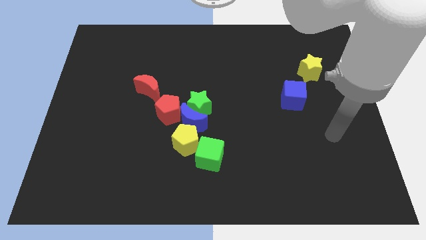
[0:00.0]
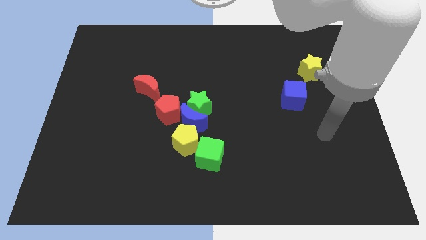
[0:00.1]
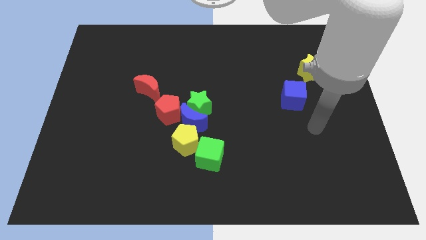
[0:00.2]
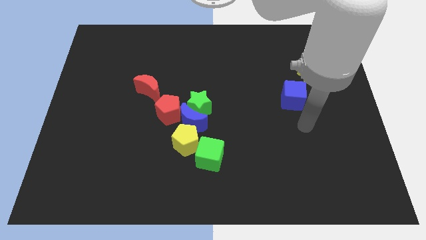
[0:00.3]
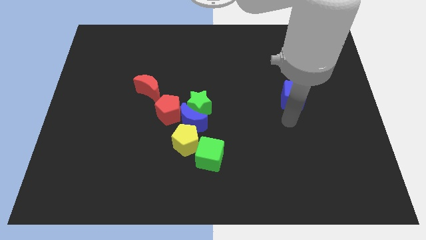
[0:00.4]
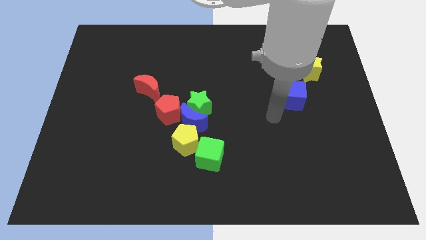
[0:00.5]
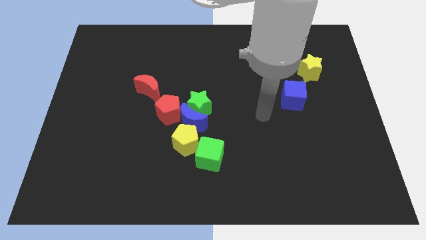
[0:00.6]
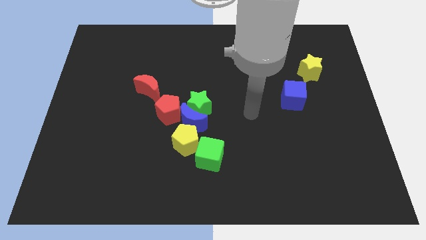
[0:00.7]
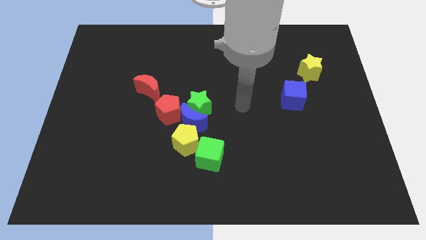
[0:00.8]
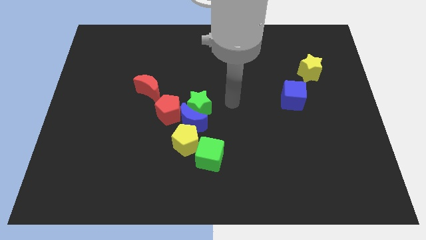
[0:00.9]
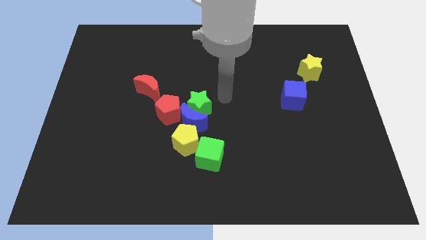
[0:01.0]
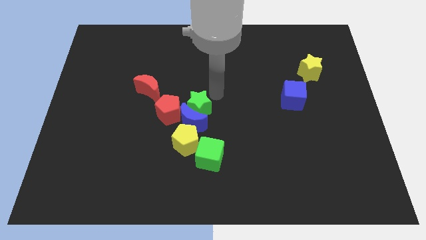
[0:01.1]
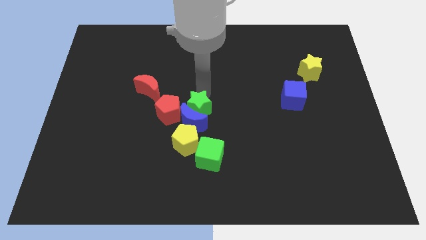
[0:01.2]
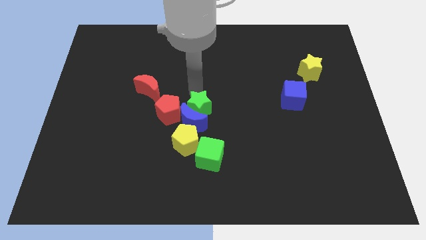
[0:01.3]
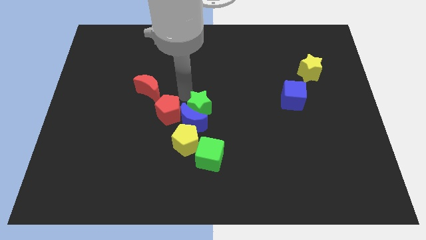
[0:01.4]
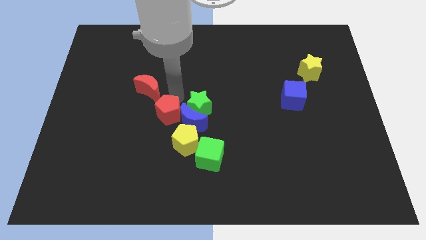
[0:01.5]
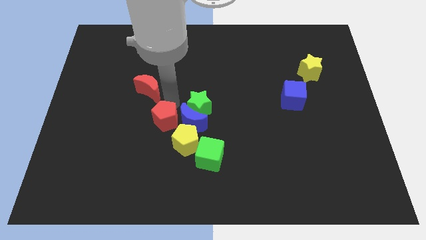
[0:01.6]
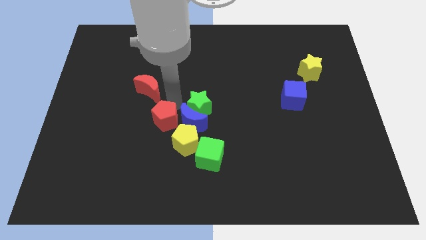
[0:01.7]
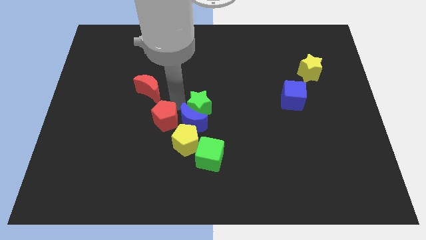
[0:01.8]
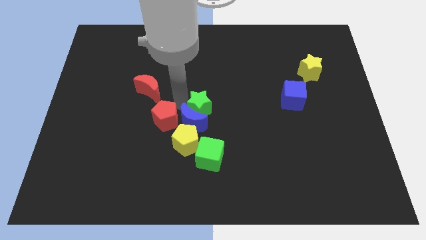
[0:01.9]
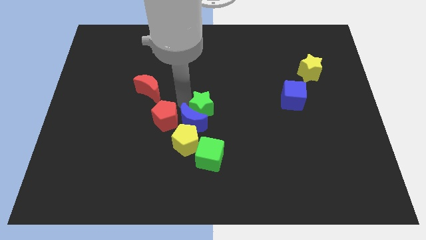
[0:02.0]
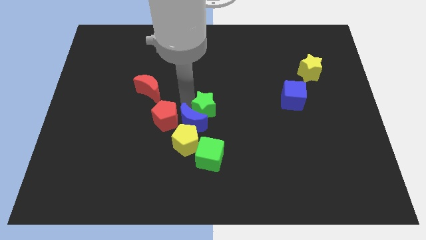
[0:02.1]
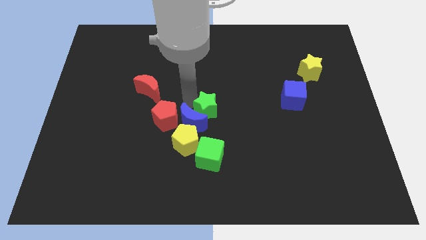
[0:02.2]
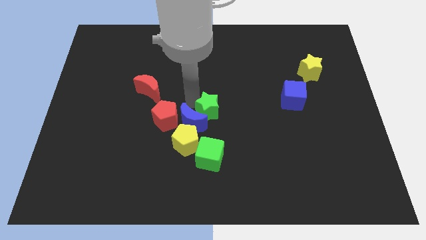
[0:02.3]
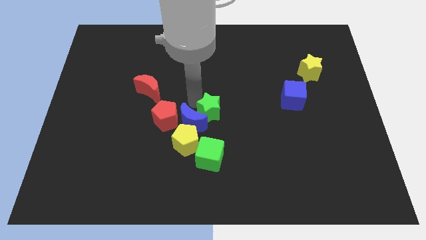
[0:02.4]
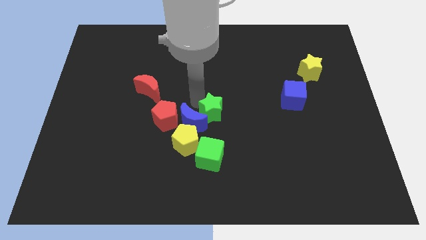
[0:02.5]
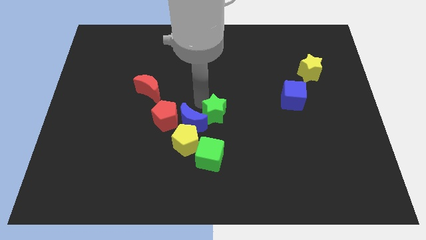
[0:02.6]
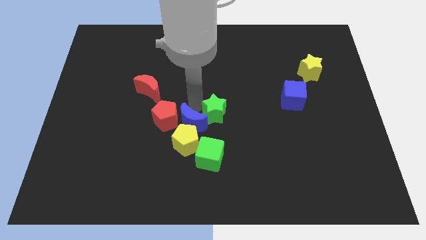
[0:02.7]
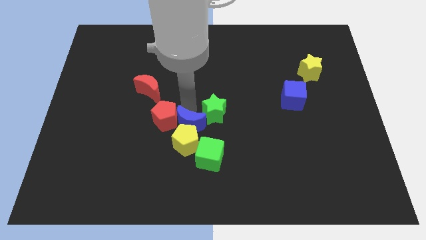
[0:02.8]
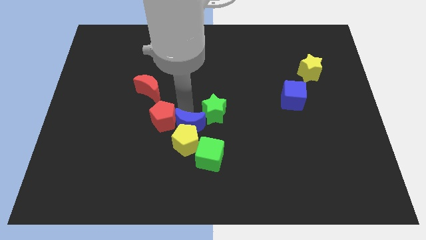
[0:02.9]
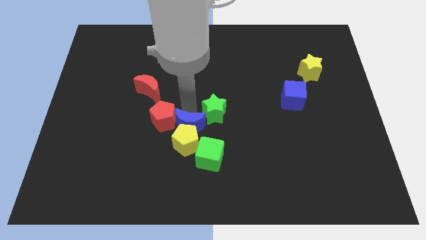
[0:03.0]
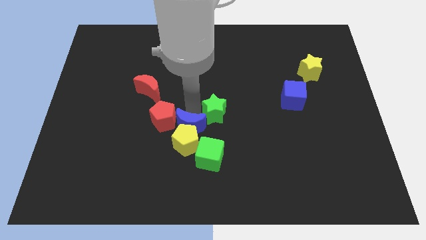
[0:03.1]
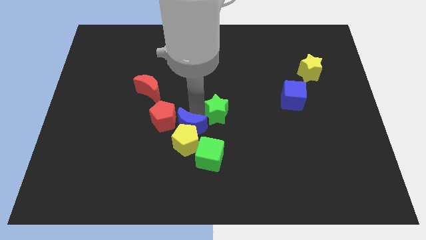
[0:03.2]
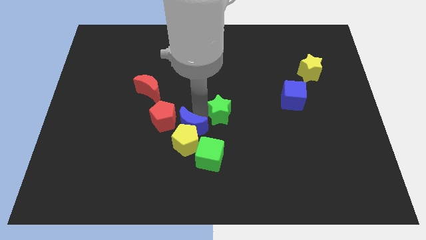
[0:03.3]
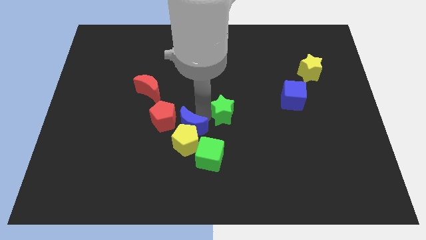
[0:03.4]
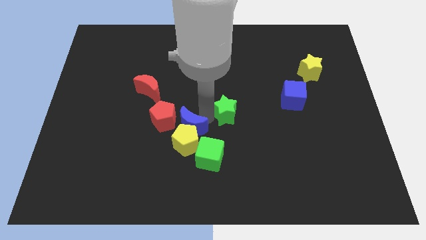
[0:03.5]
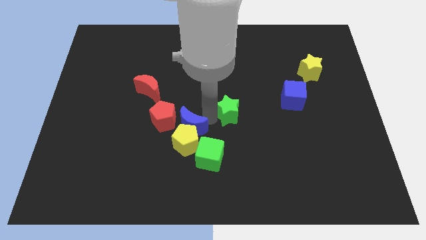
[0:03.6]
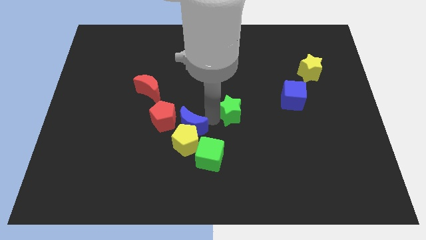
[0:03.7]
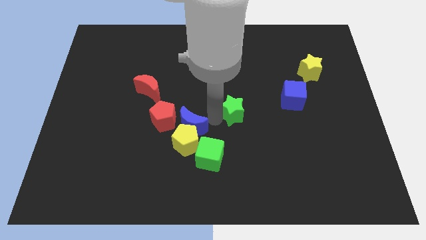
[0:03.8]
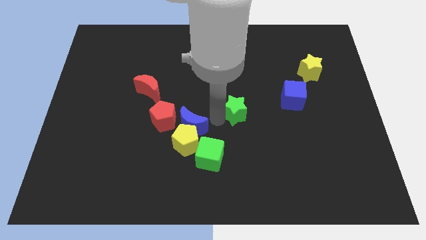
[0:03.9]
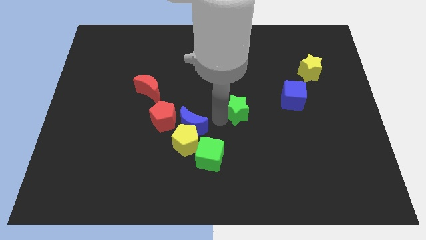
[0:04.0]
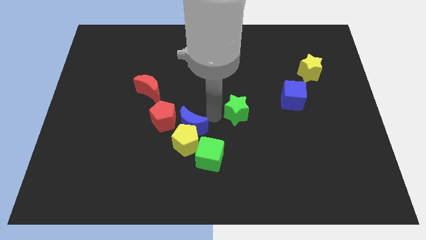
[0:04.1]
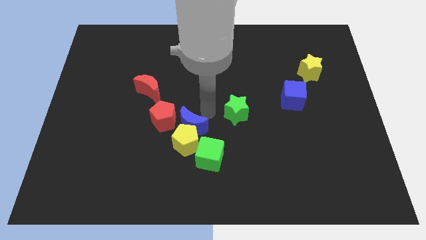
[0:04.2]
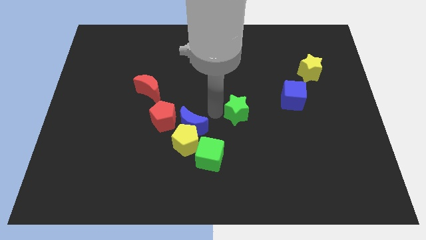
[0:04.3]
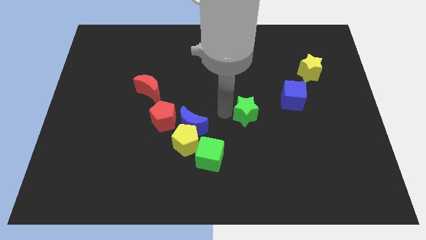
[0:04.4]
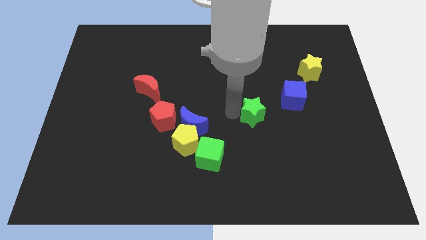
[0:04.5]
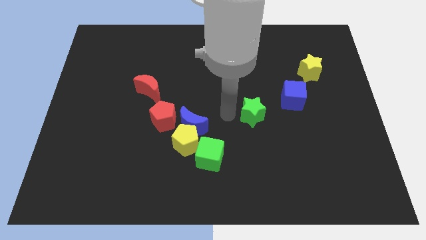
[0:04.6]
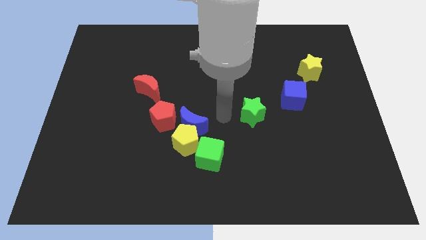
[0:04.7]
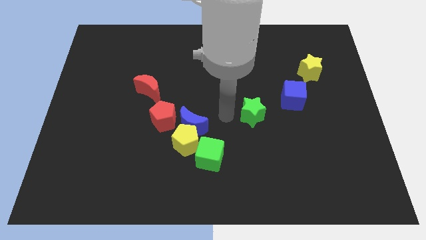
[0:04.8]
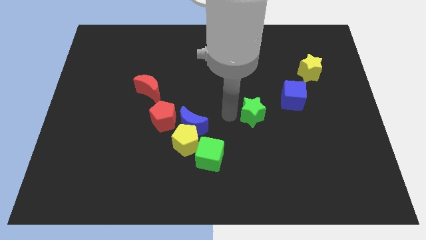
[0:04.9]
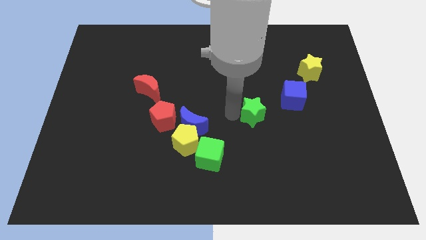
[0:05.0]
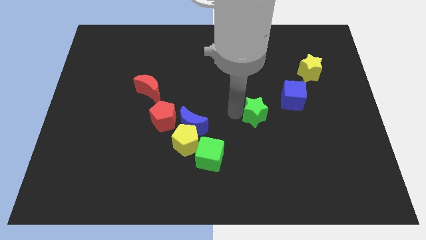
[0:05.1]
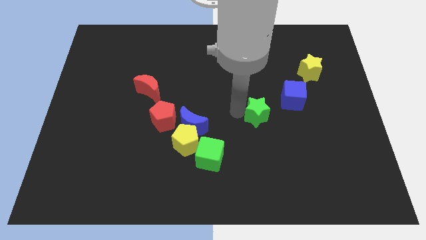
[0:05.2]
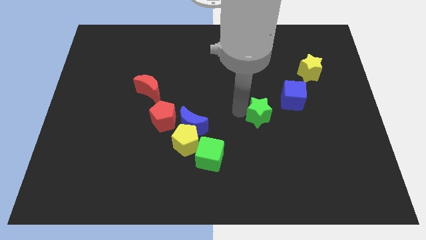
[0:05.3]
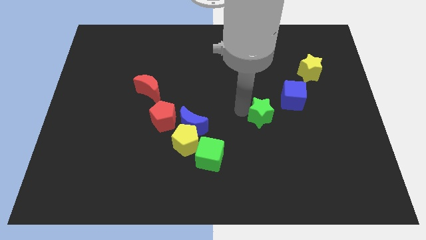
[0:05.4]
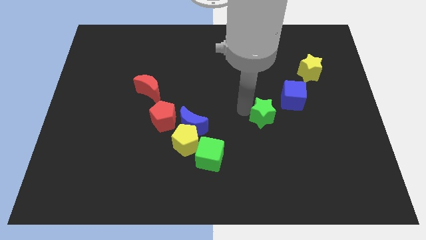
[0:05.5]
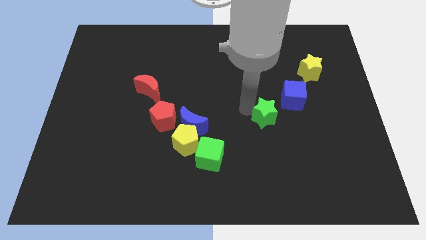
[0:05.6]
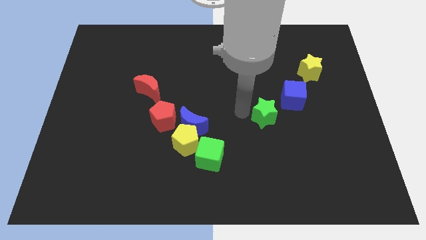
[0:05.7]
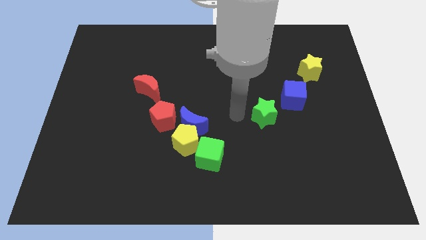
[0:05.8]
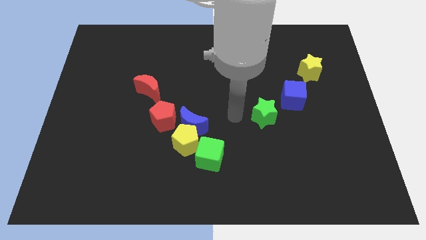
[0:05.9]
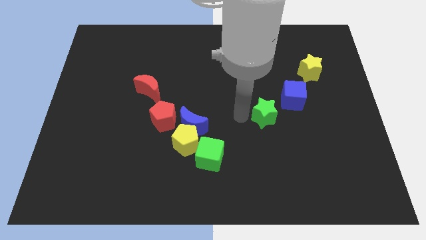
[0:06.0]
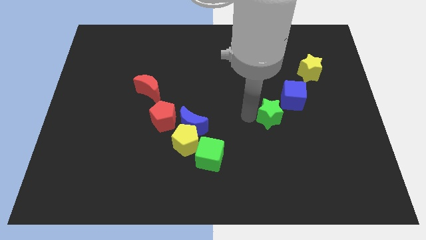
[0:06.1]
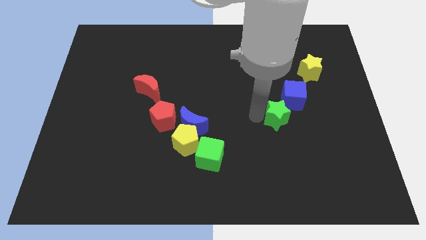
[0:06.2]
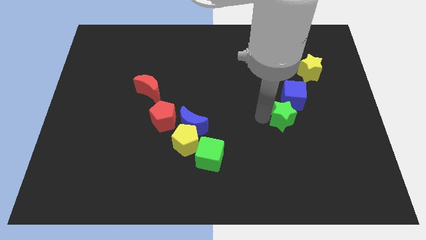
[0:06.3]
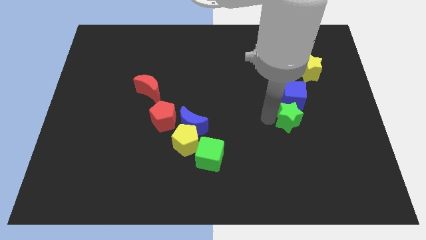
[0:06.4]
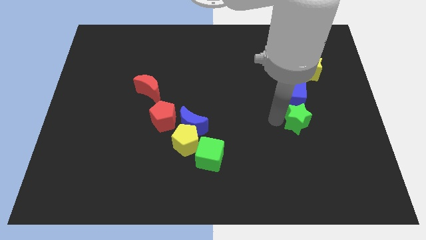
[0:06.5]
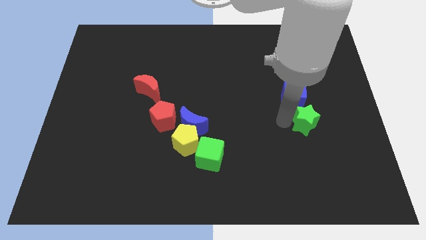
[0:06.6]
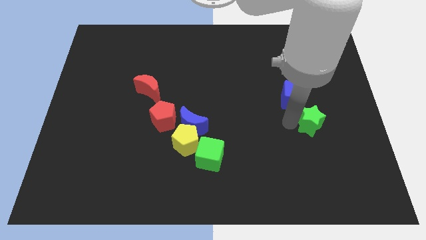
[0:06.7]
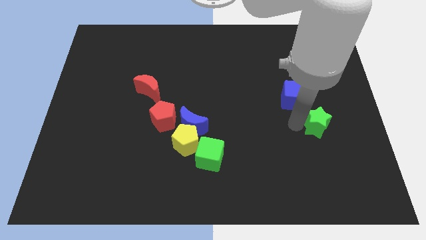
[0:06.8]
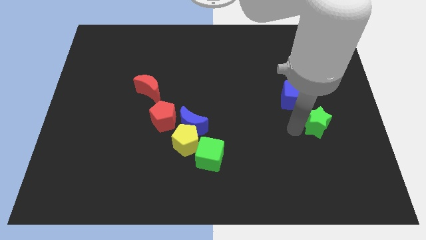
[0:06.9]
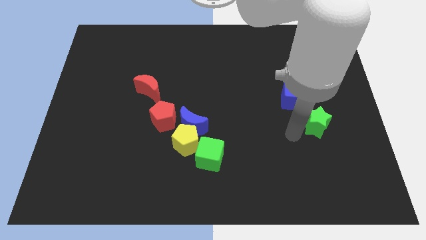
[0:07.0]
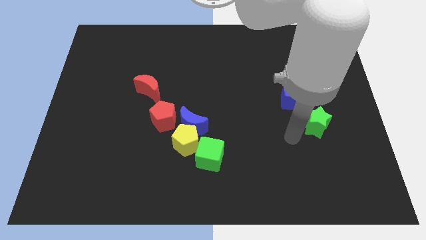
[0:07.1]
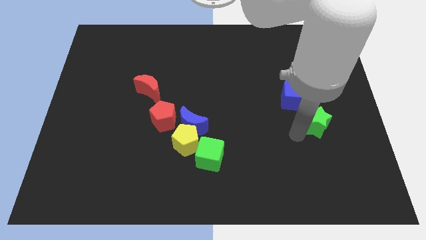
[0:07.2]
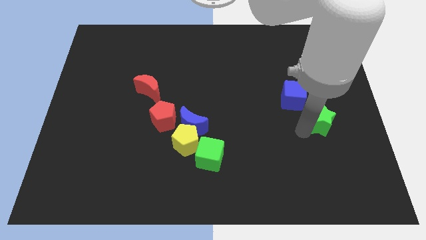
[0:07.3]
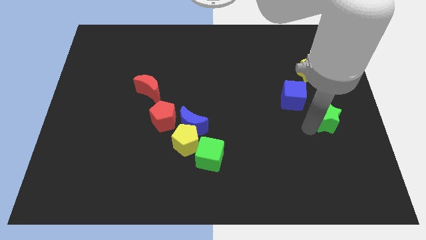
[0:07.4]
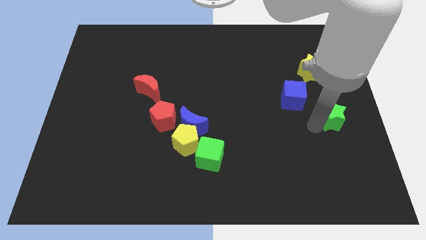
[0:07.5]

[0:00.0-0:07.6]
move the green star to the center right
